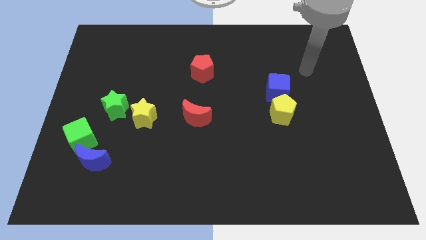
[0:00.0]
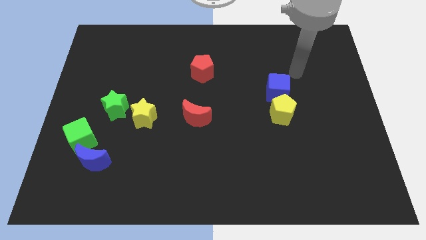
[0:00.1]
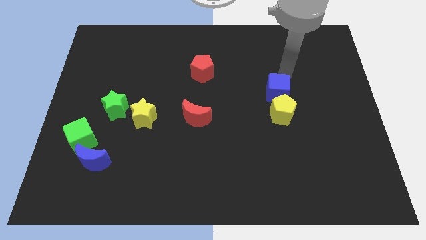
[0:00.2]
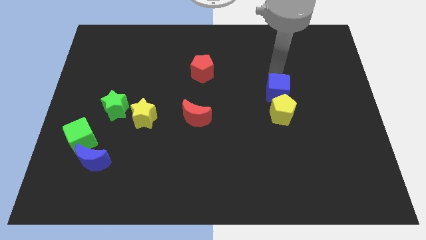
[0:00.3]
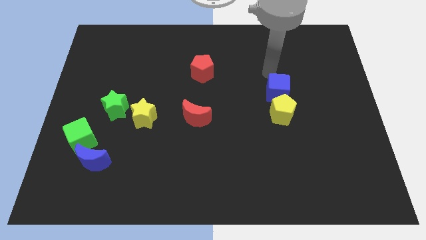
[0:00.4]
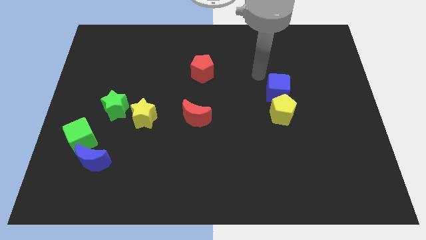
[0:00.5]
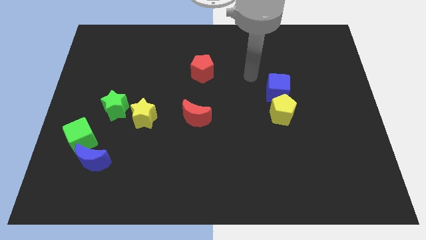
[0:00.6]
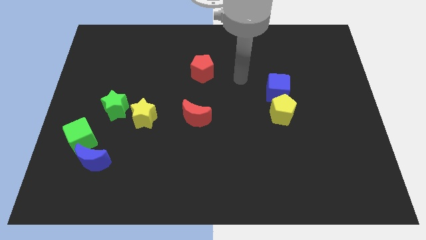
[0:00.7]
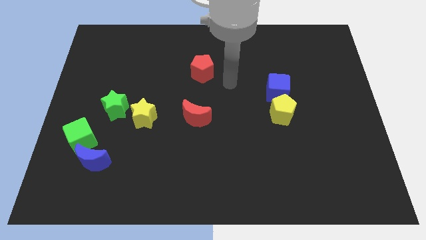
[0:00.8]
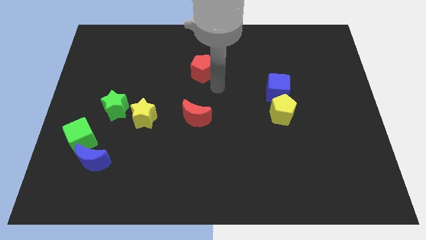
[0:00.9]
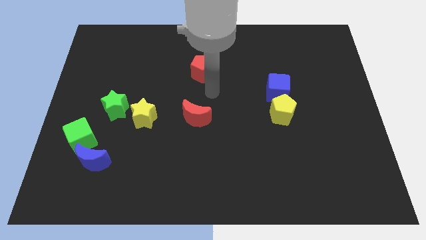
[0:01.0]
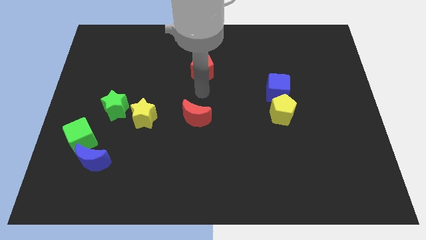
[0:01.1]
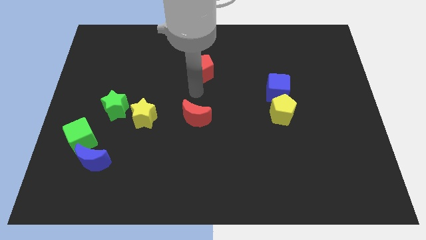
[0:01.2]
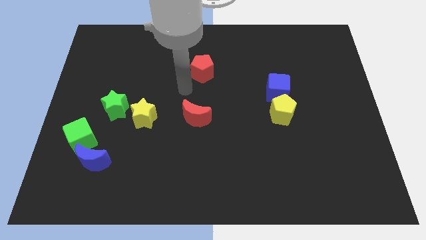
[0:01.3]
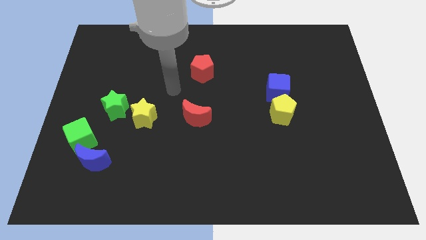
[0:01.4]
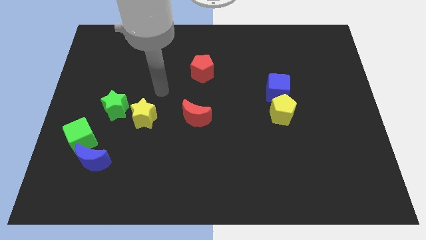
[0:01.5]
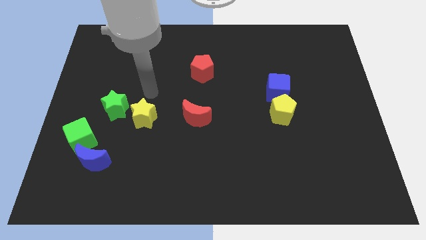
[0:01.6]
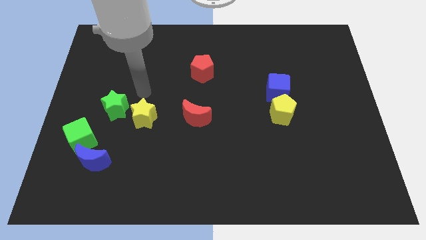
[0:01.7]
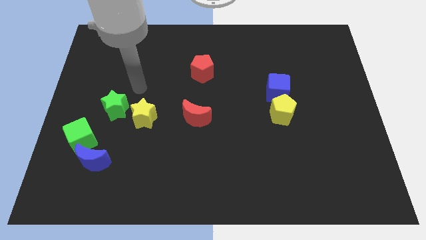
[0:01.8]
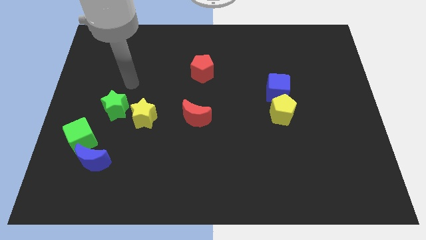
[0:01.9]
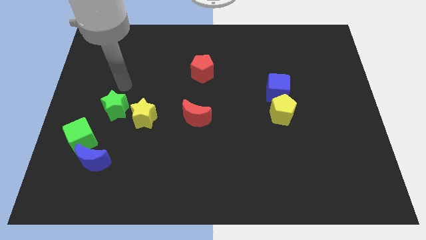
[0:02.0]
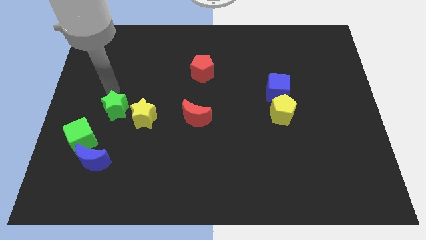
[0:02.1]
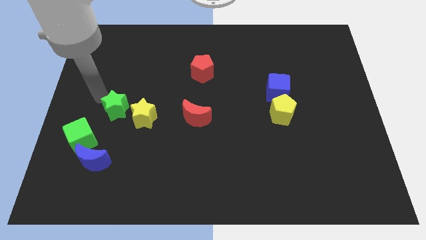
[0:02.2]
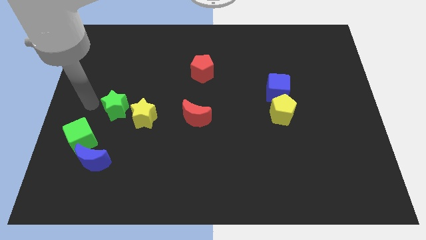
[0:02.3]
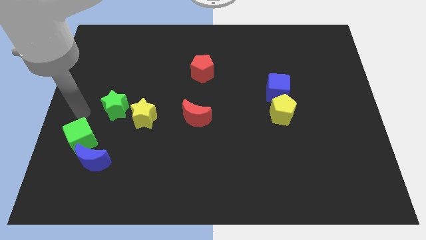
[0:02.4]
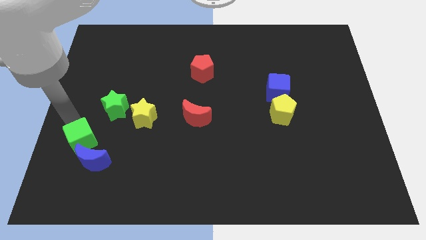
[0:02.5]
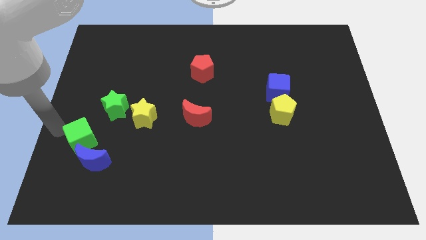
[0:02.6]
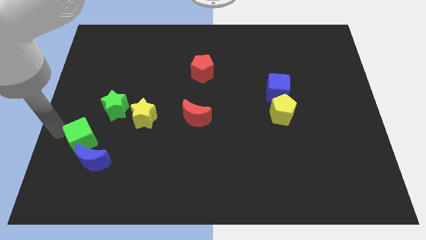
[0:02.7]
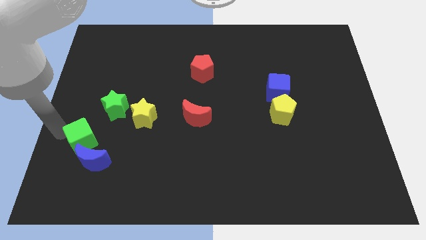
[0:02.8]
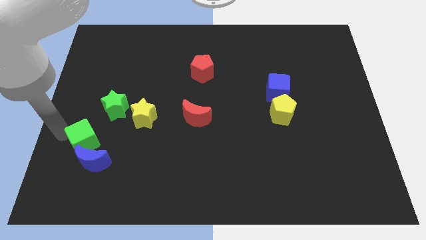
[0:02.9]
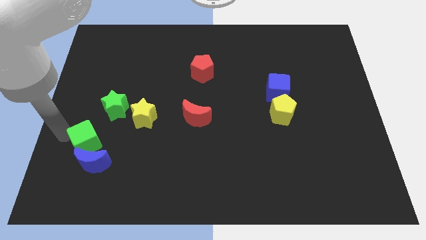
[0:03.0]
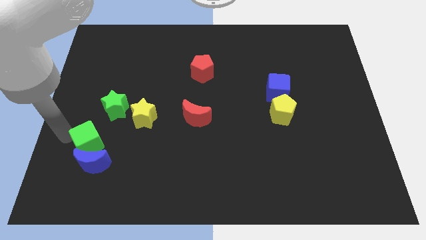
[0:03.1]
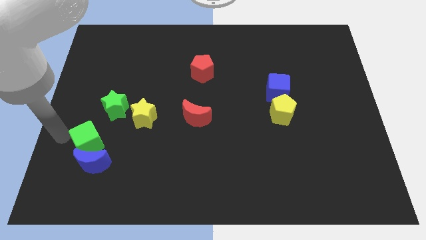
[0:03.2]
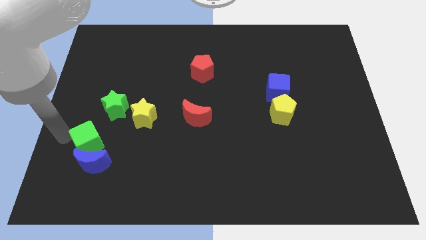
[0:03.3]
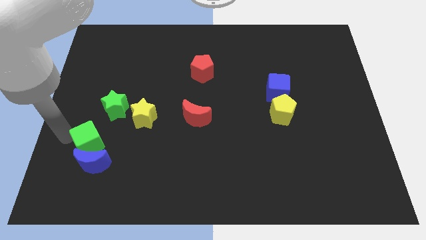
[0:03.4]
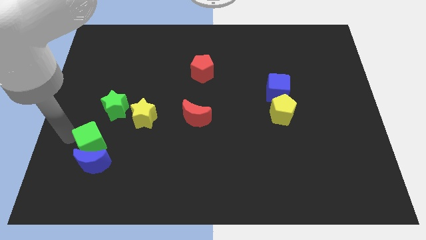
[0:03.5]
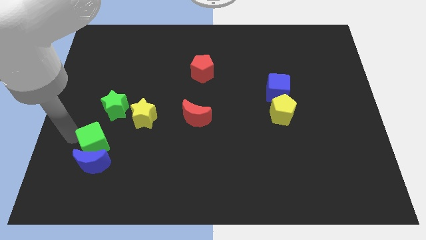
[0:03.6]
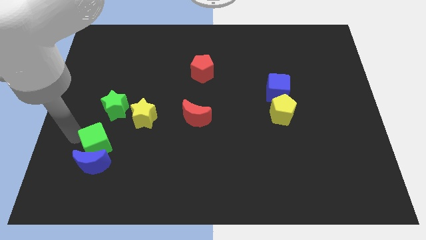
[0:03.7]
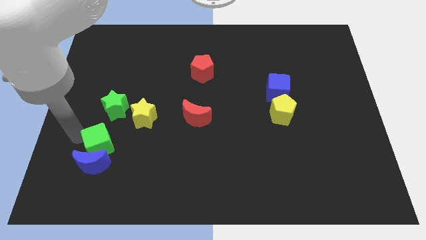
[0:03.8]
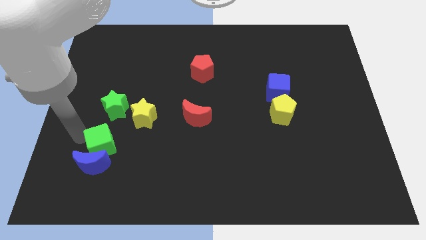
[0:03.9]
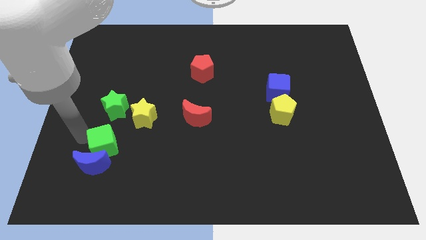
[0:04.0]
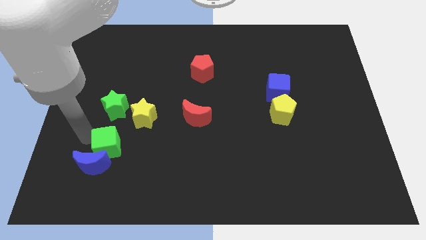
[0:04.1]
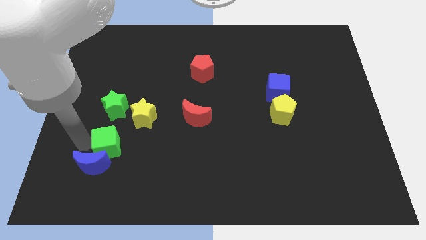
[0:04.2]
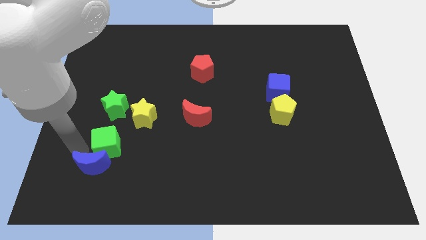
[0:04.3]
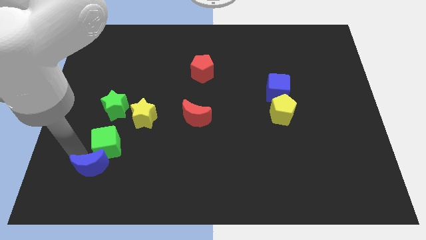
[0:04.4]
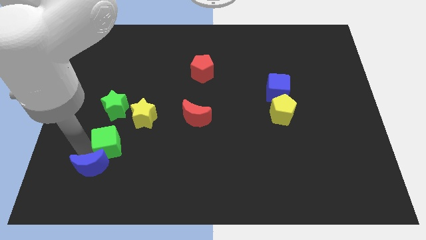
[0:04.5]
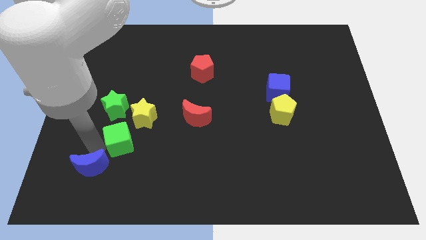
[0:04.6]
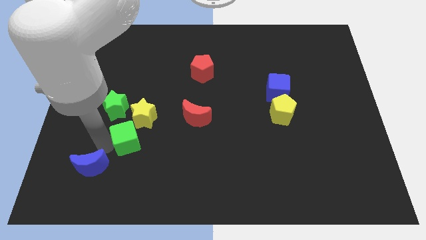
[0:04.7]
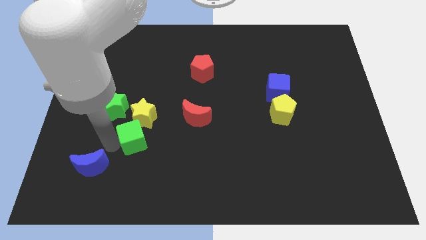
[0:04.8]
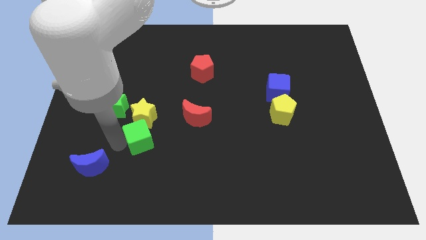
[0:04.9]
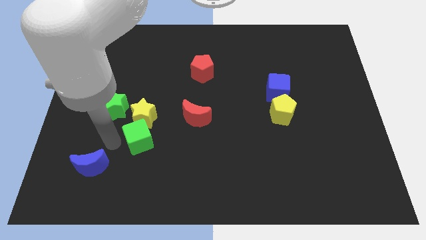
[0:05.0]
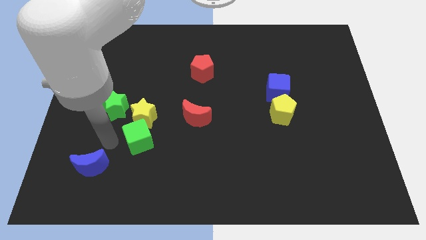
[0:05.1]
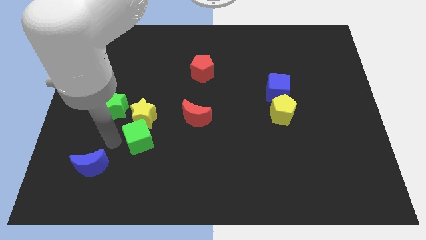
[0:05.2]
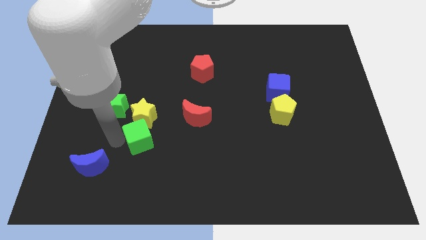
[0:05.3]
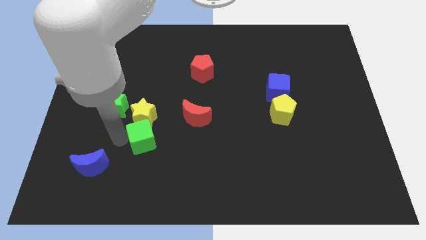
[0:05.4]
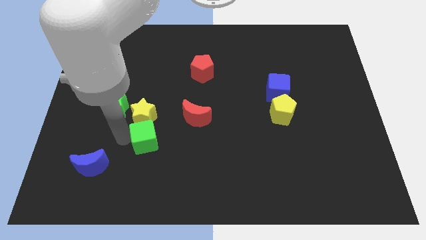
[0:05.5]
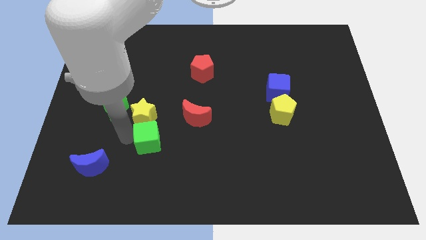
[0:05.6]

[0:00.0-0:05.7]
move the green cube to the bottom left side of the red moon

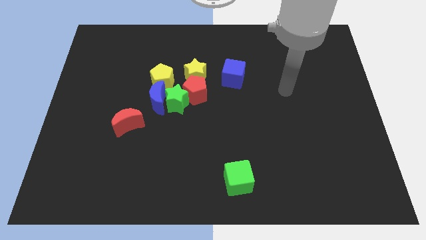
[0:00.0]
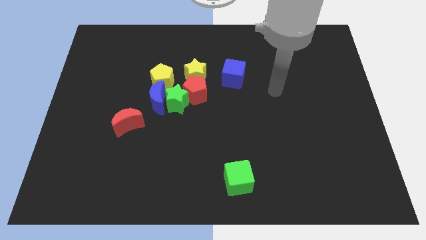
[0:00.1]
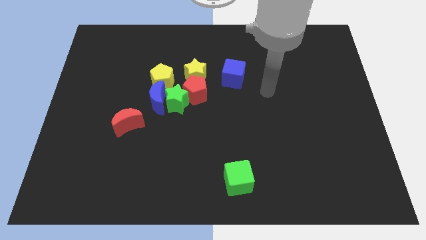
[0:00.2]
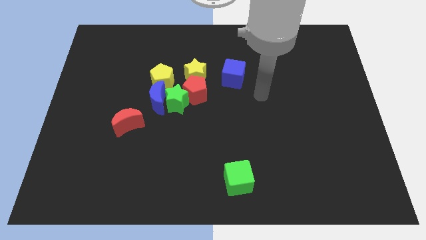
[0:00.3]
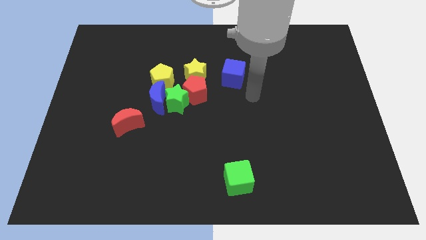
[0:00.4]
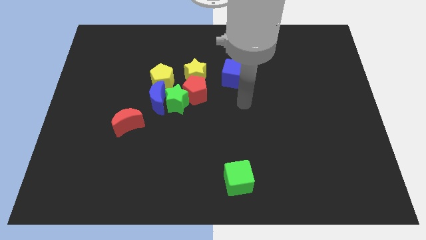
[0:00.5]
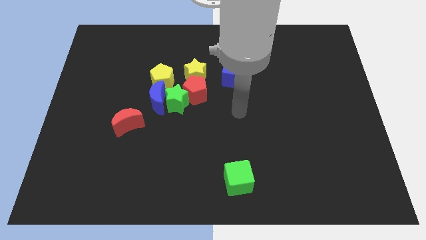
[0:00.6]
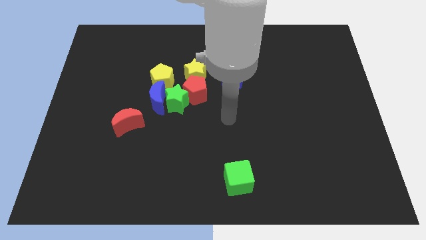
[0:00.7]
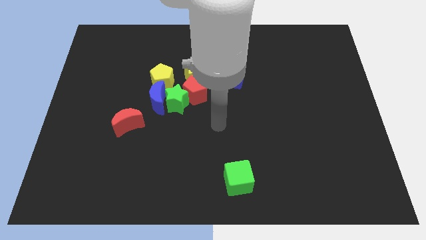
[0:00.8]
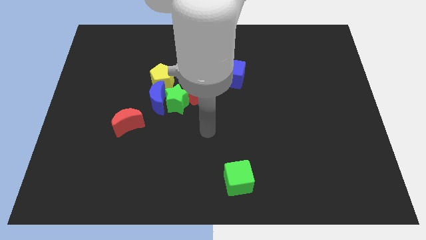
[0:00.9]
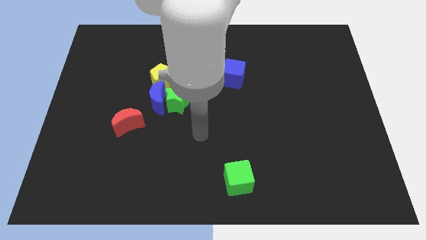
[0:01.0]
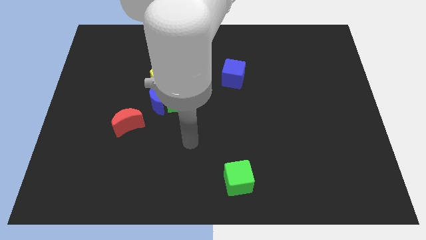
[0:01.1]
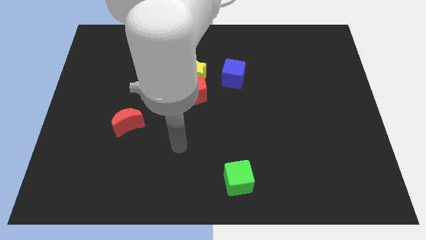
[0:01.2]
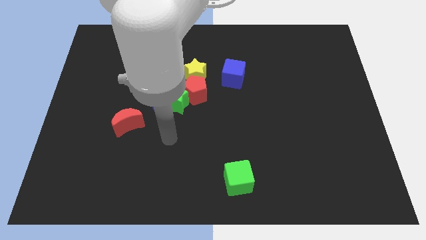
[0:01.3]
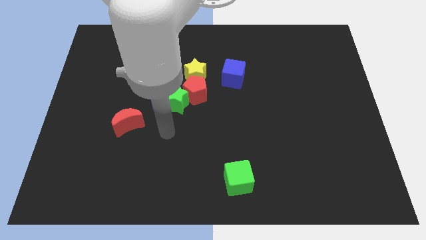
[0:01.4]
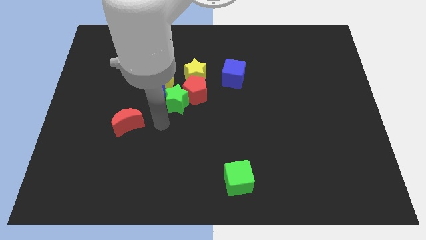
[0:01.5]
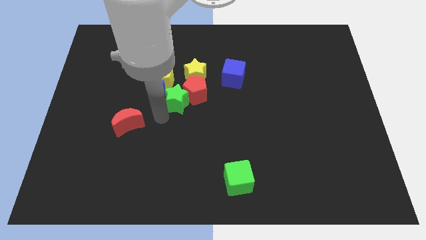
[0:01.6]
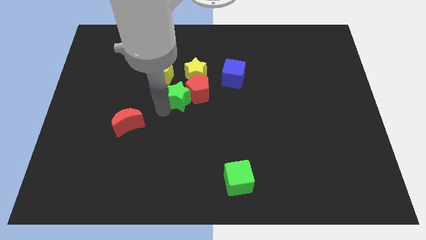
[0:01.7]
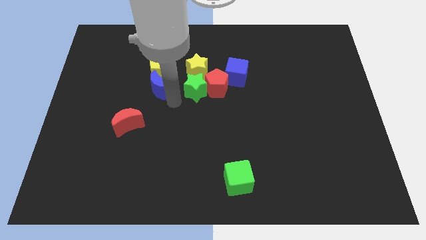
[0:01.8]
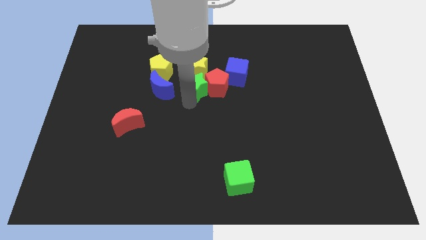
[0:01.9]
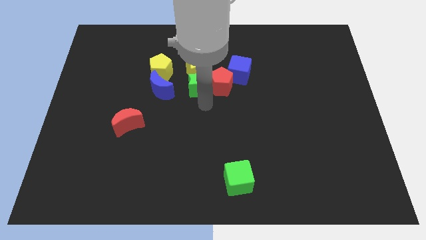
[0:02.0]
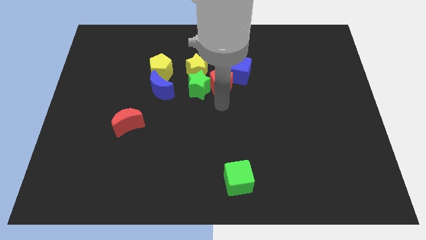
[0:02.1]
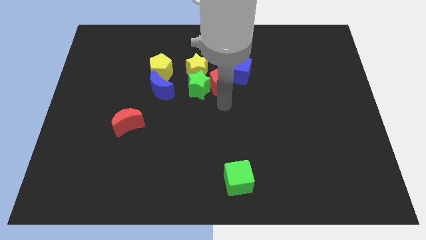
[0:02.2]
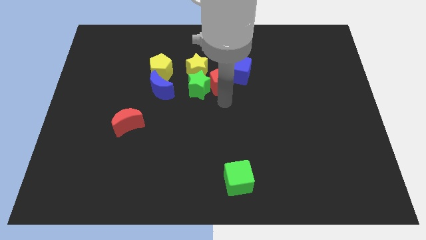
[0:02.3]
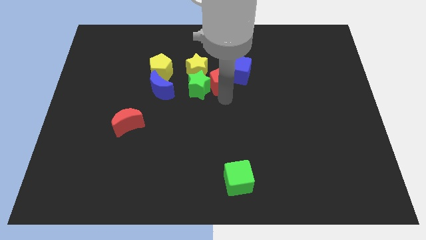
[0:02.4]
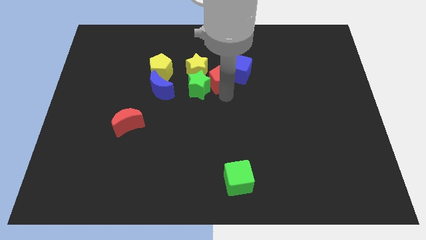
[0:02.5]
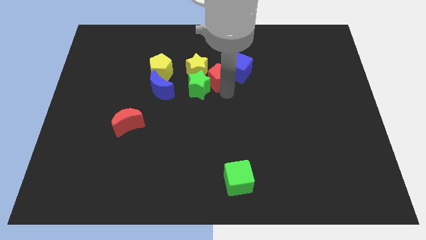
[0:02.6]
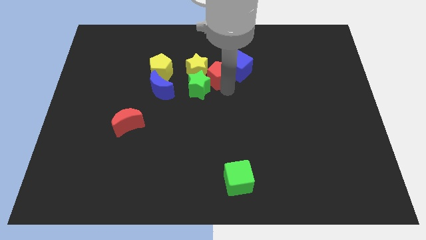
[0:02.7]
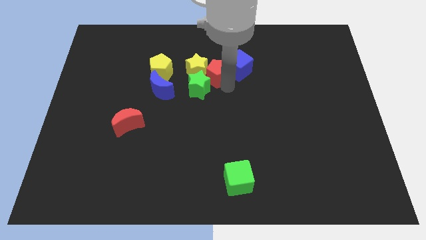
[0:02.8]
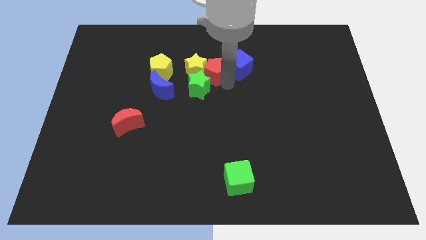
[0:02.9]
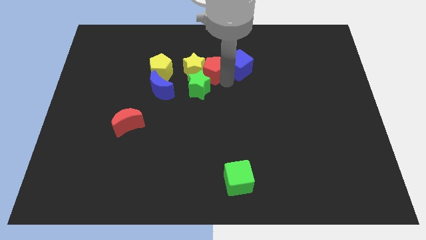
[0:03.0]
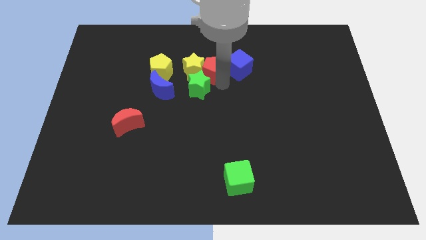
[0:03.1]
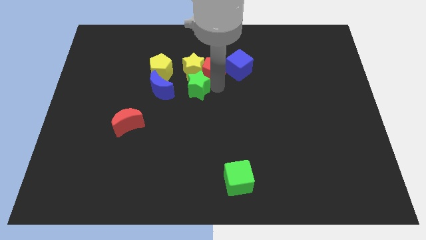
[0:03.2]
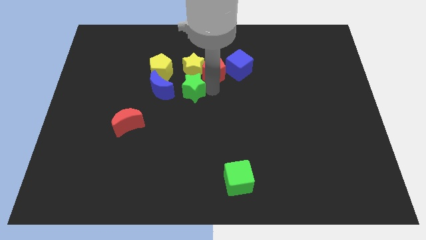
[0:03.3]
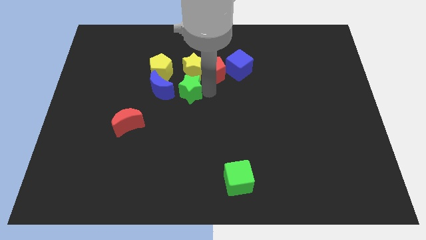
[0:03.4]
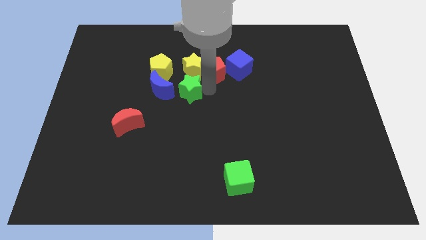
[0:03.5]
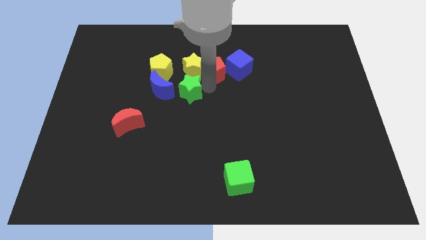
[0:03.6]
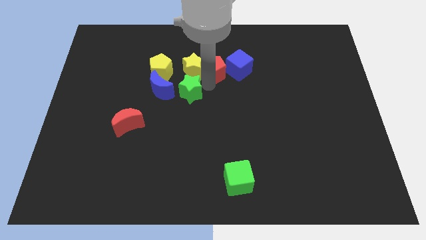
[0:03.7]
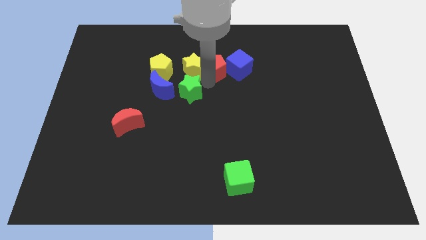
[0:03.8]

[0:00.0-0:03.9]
slide the red pentagon diagonally up and to the left of the blue cube
